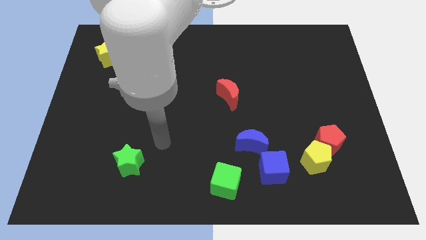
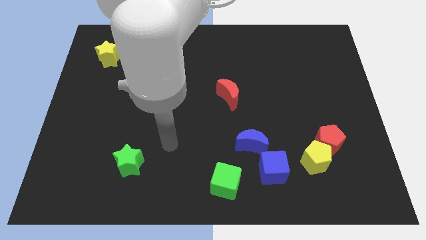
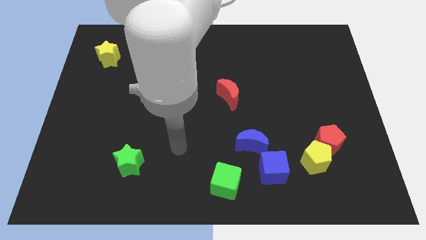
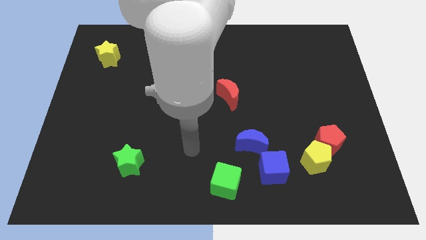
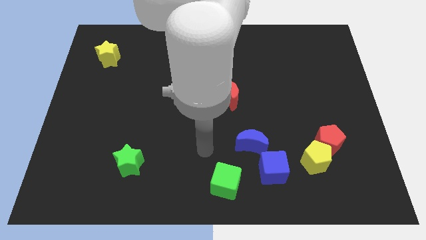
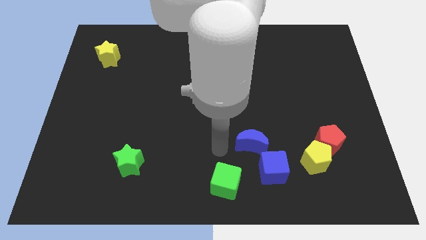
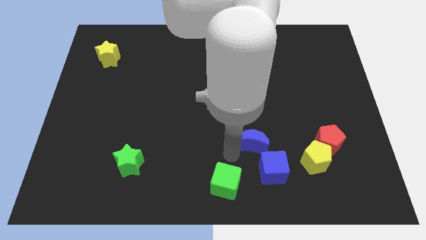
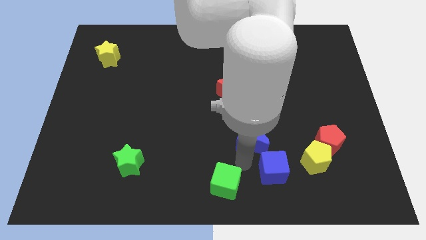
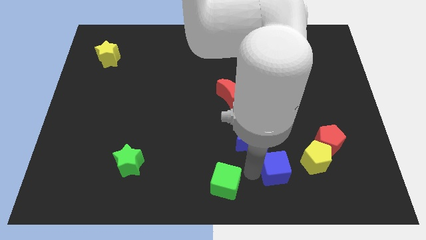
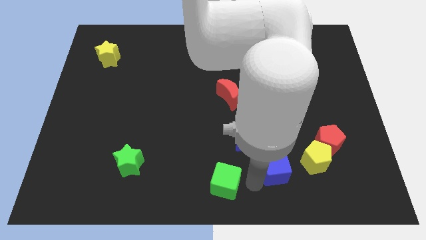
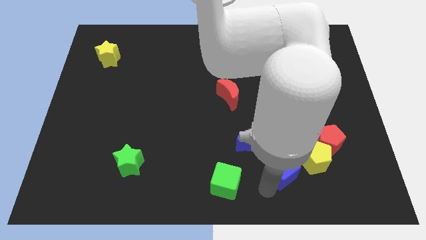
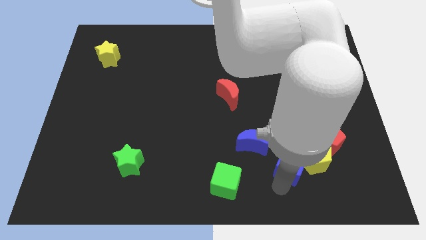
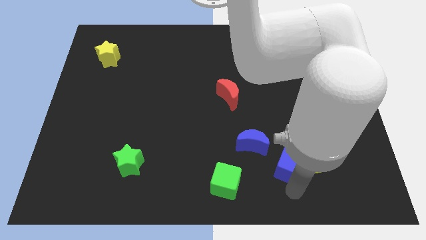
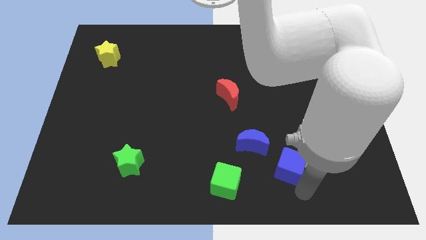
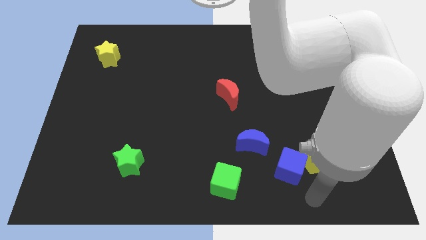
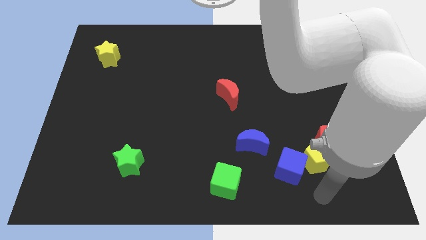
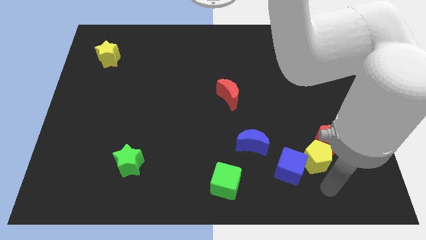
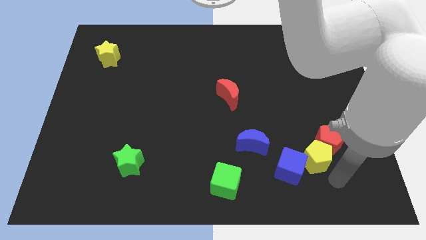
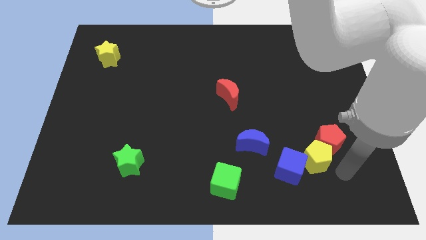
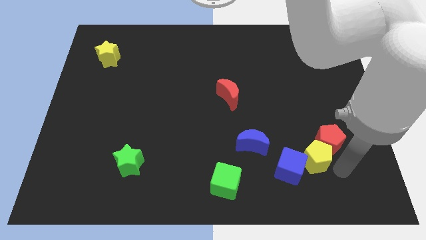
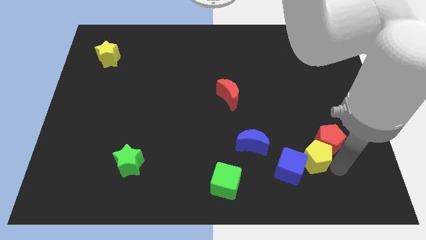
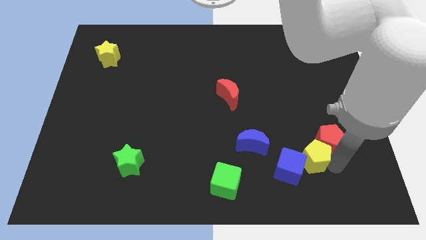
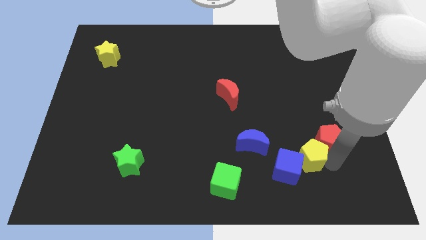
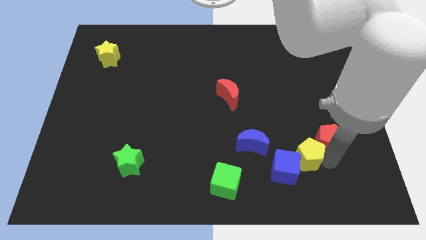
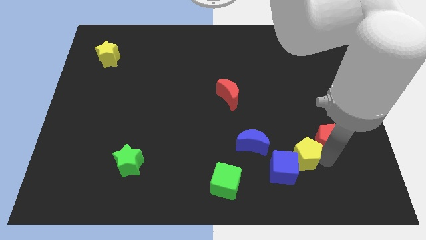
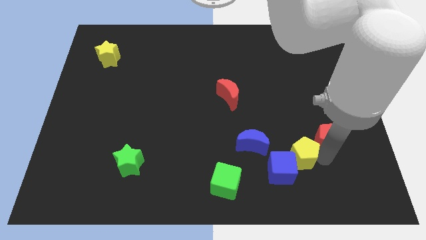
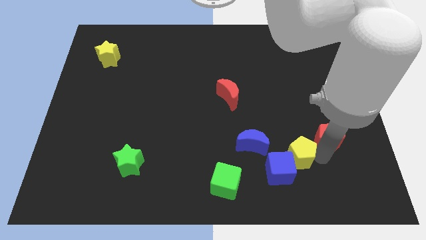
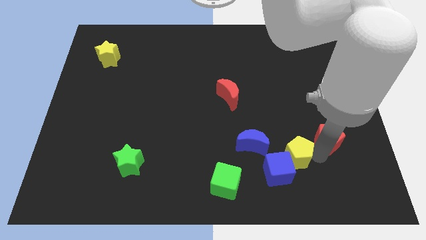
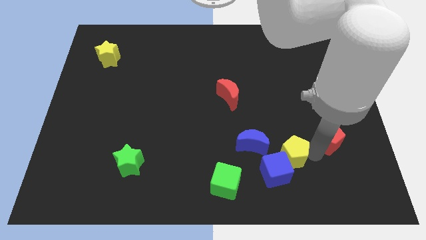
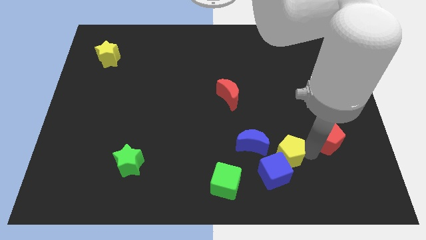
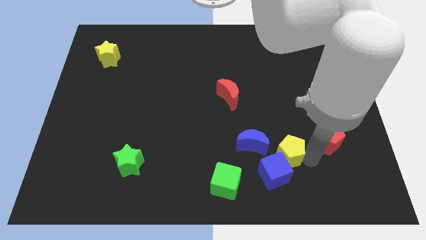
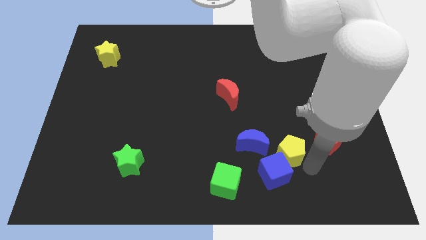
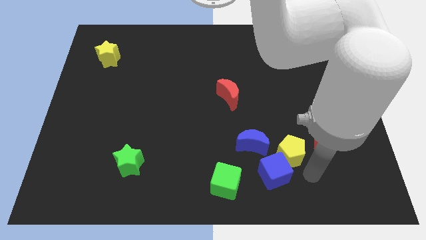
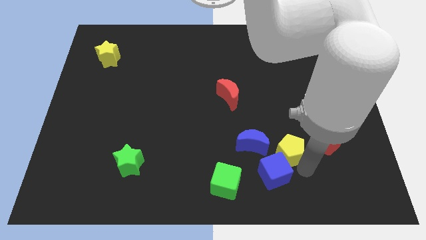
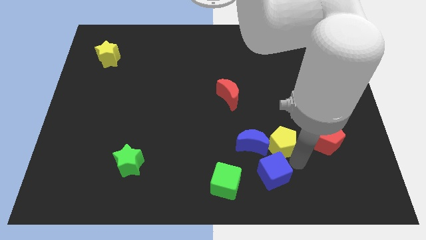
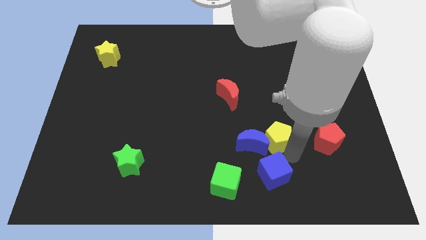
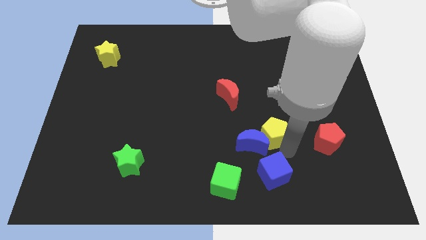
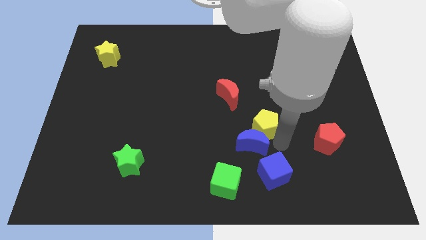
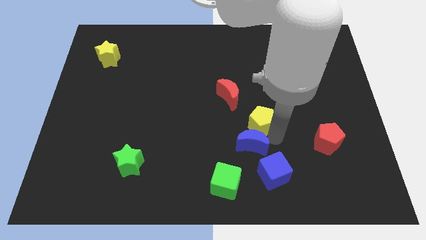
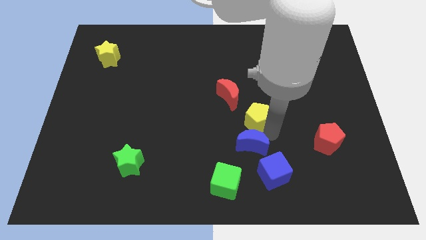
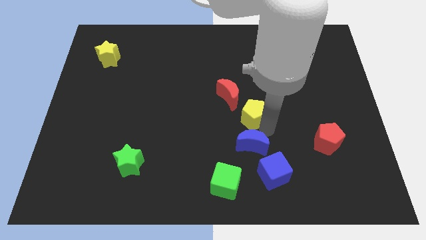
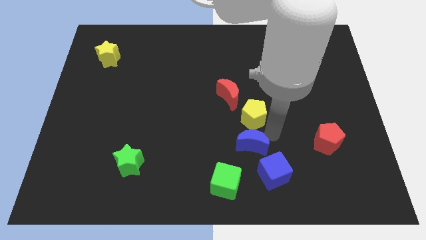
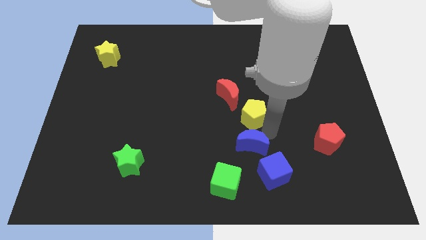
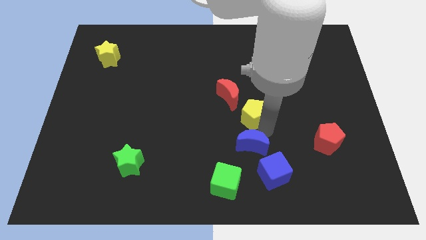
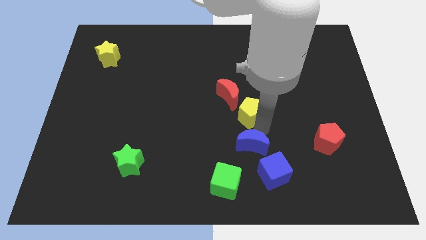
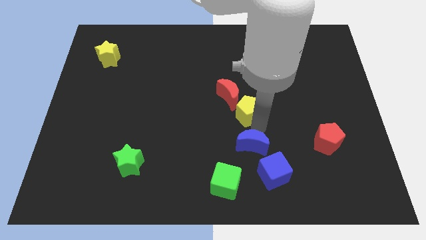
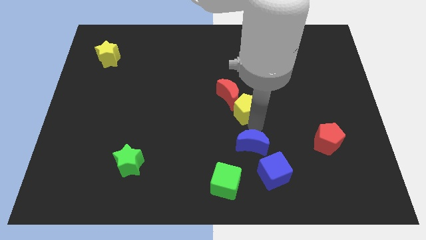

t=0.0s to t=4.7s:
push the yellow pentagon towards the red moon

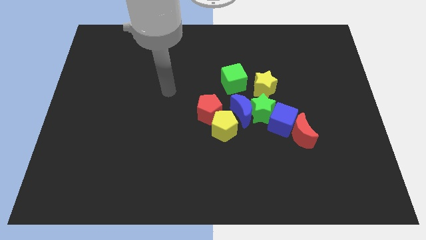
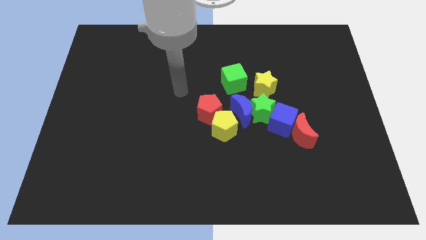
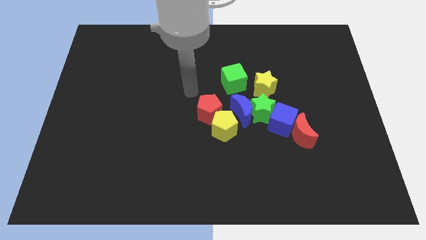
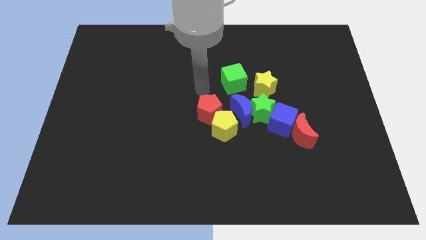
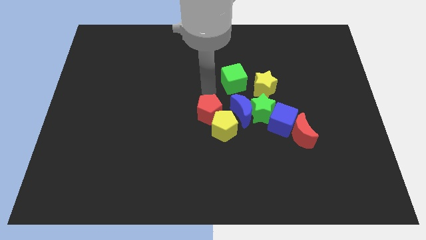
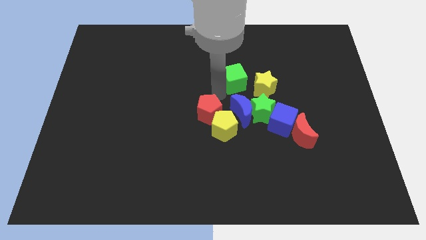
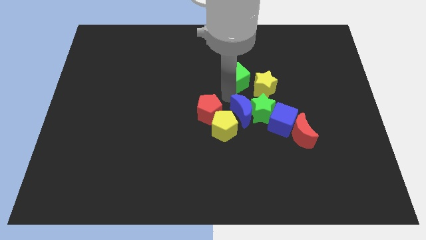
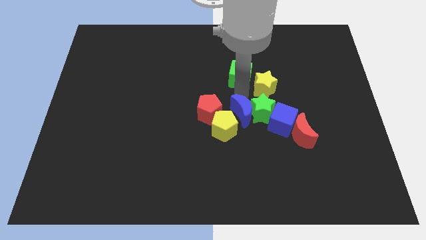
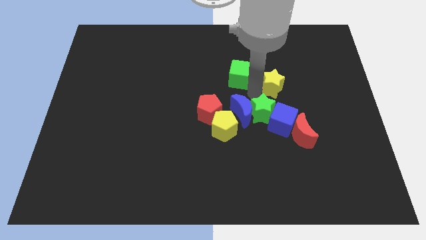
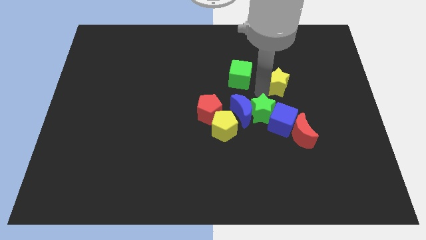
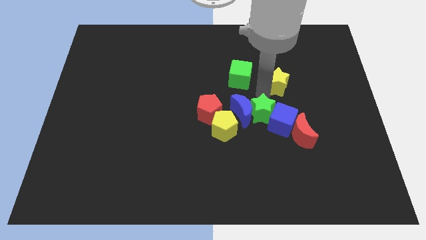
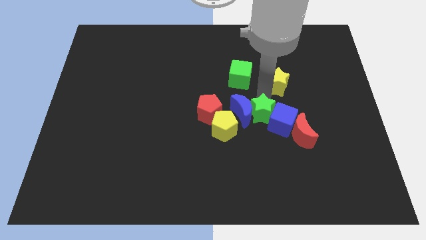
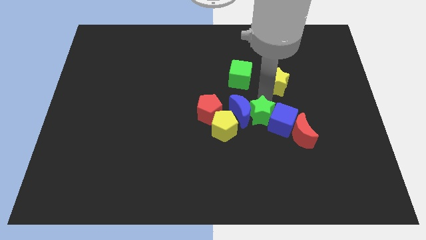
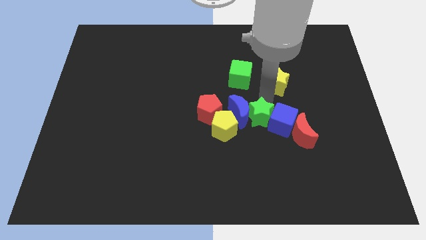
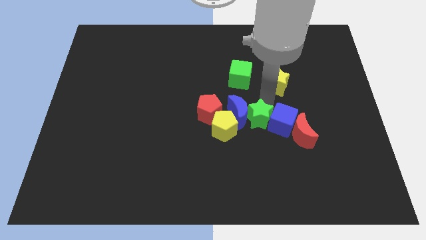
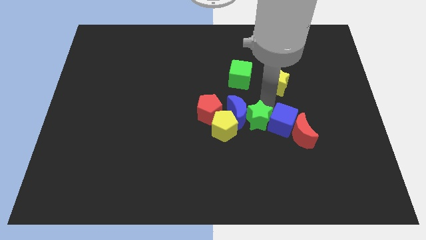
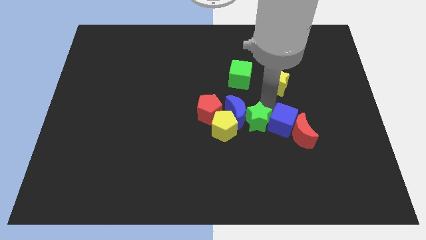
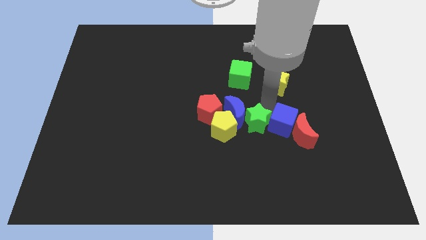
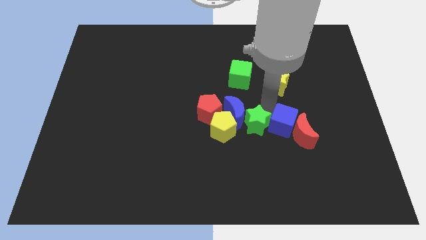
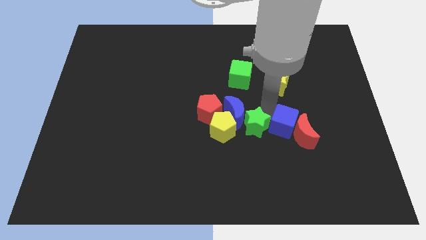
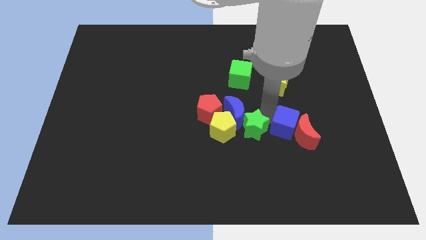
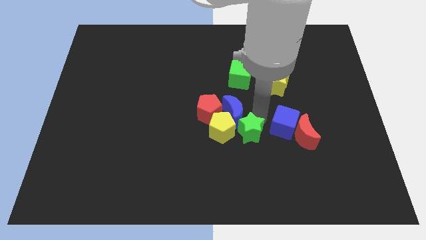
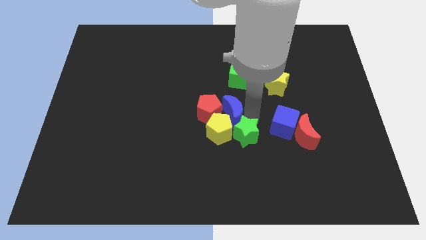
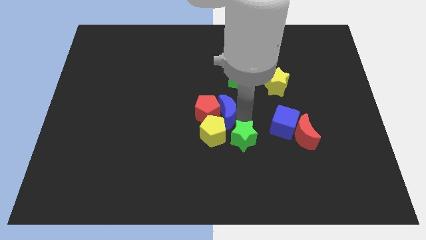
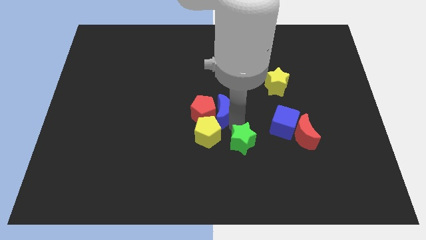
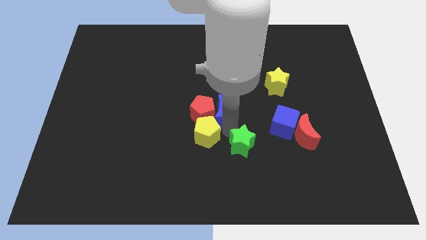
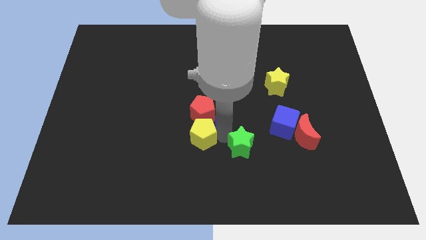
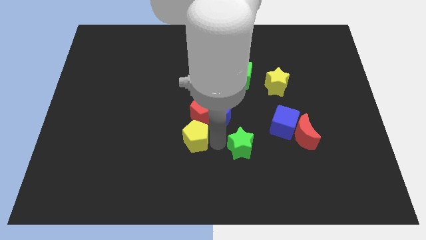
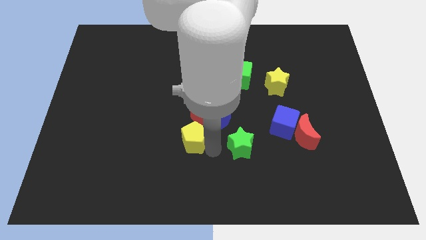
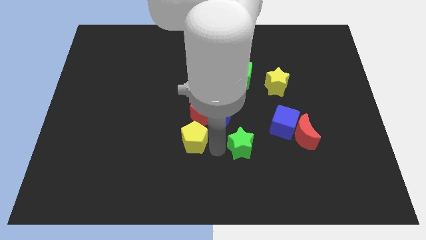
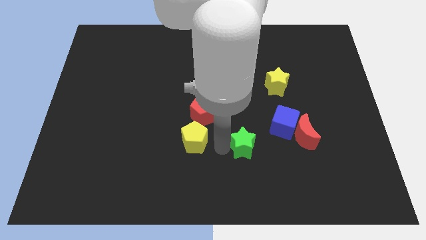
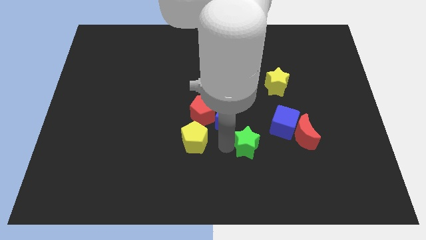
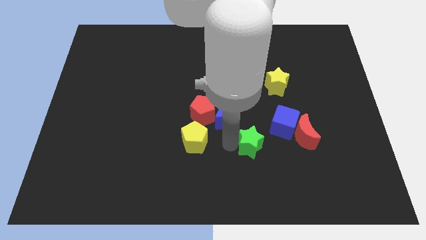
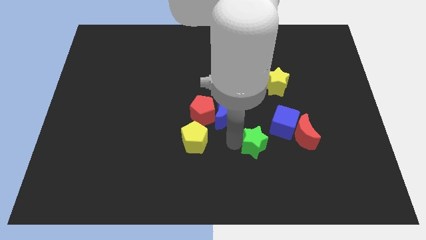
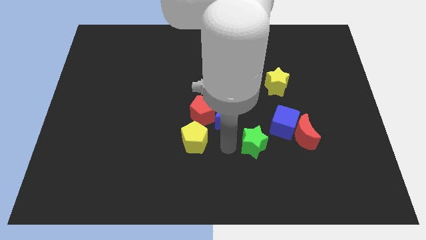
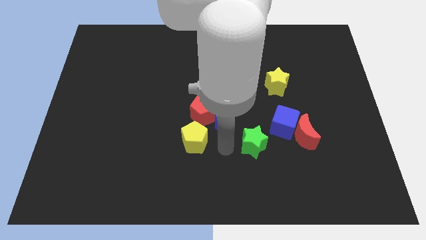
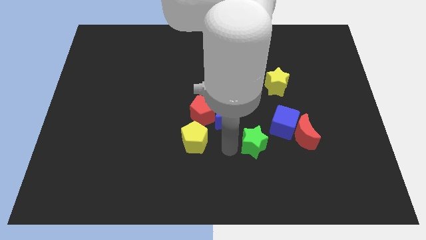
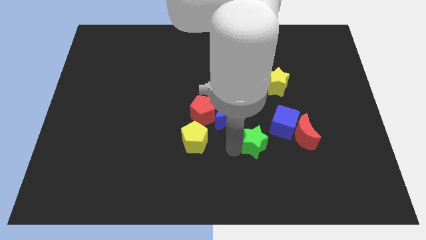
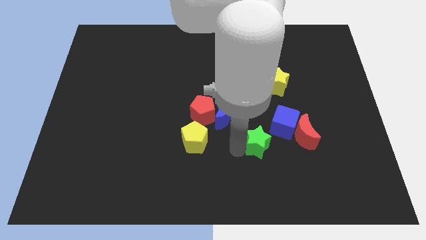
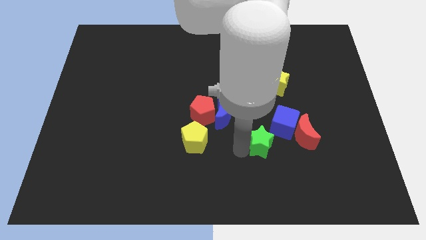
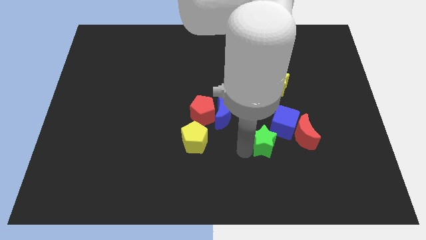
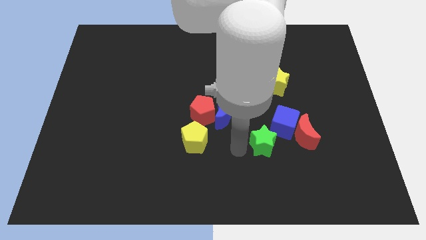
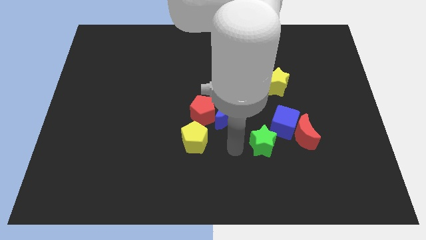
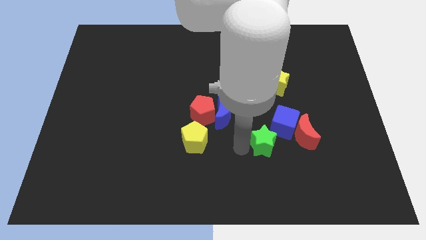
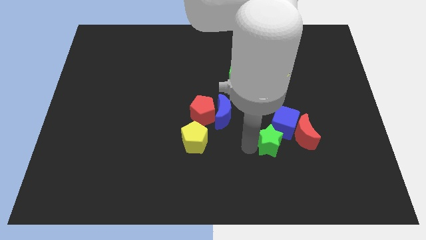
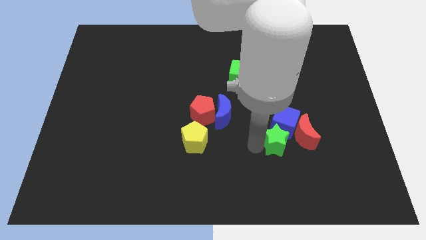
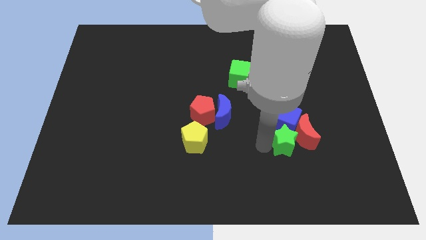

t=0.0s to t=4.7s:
push the green star to the red moon
